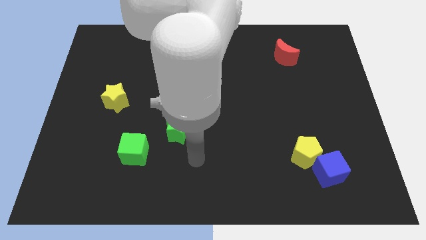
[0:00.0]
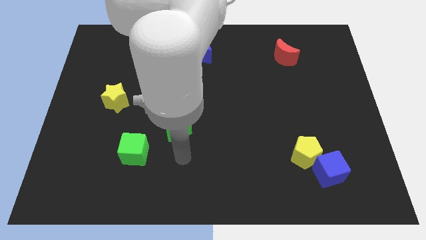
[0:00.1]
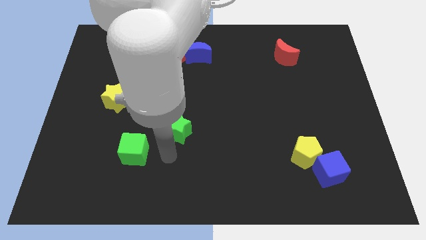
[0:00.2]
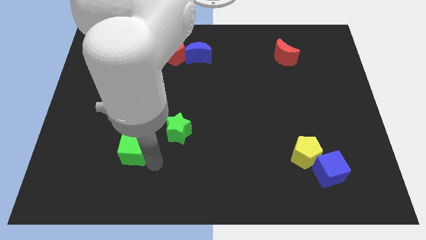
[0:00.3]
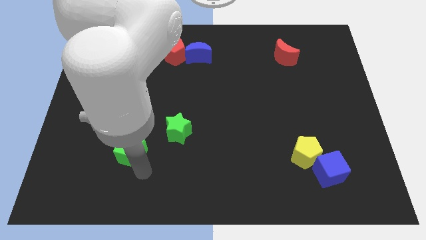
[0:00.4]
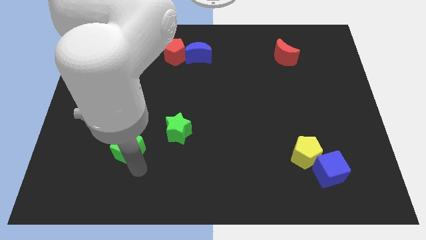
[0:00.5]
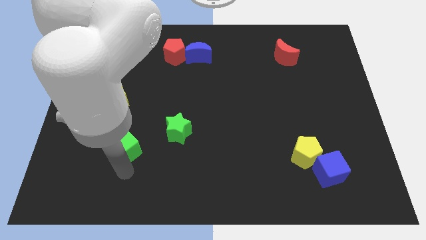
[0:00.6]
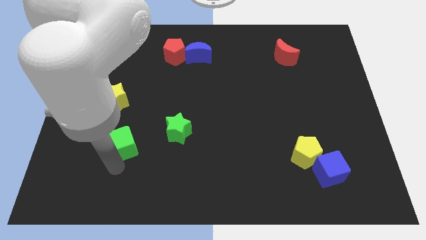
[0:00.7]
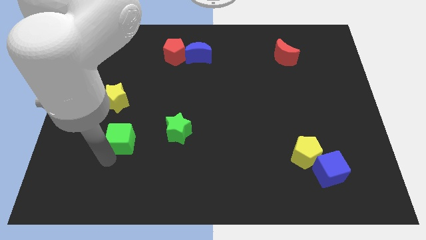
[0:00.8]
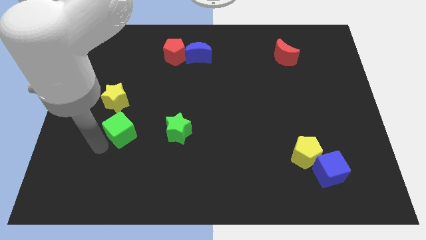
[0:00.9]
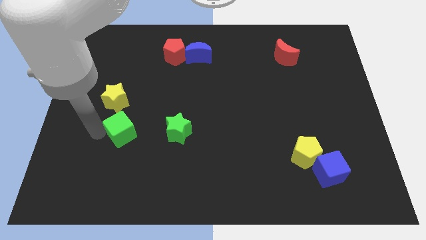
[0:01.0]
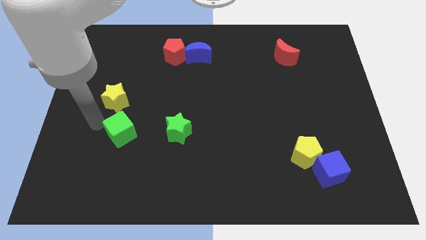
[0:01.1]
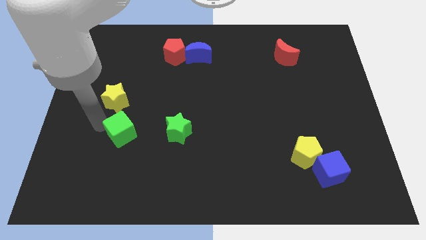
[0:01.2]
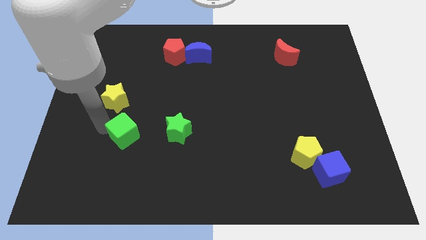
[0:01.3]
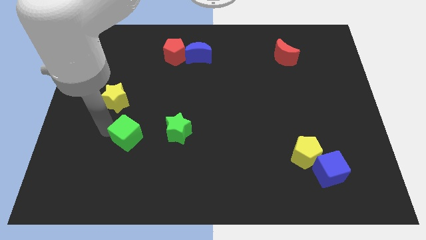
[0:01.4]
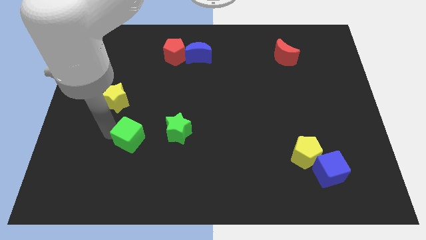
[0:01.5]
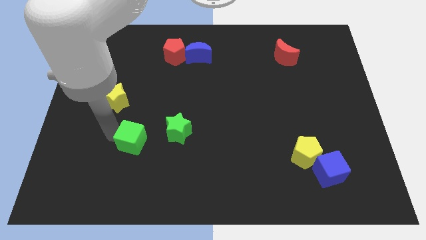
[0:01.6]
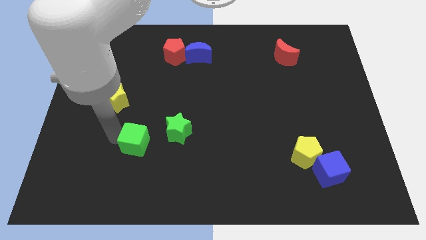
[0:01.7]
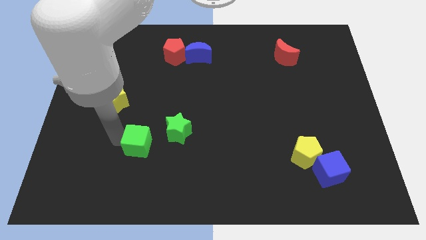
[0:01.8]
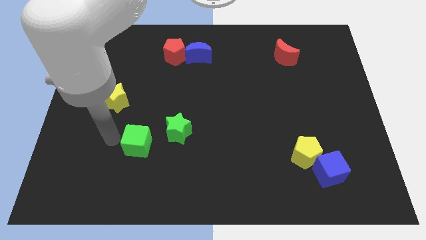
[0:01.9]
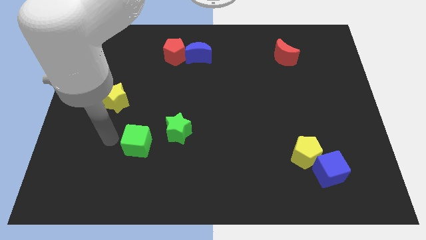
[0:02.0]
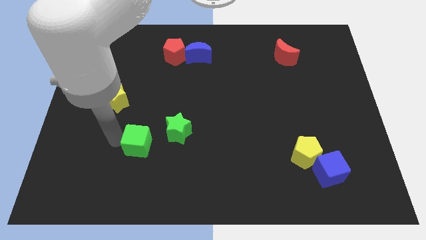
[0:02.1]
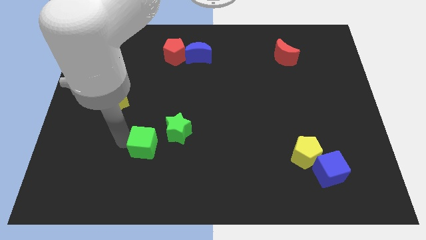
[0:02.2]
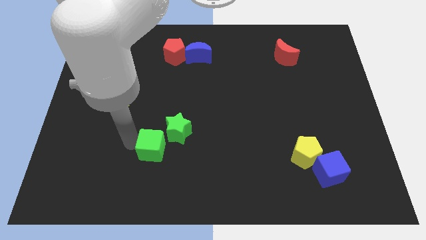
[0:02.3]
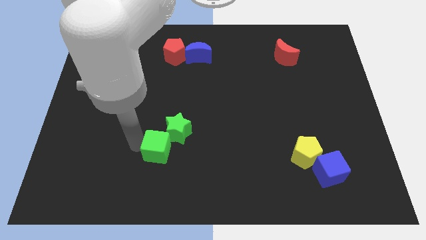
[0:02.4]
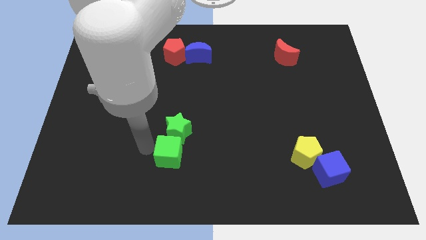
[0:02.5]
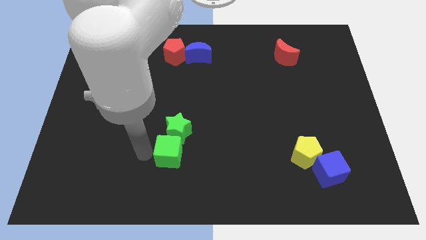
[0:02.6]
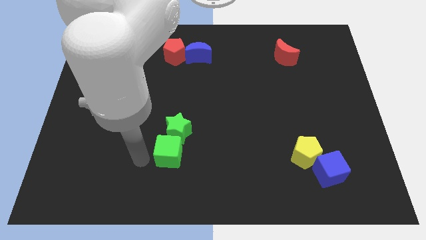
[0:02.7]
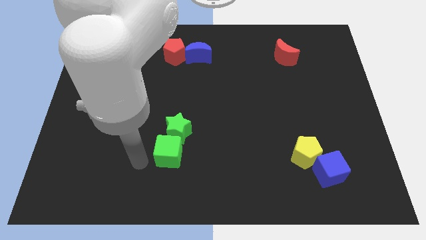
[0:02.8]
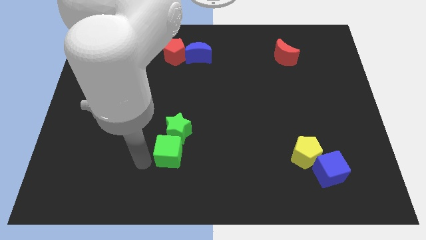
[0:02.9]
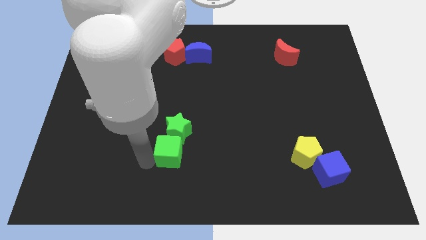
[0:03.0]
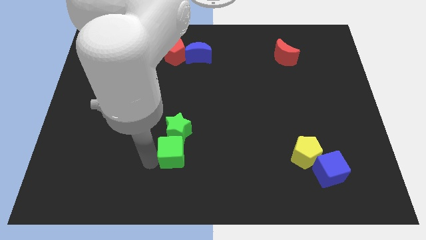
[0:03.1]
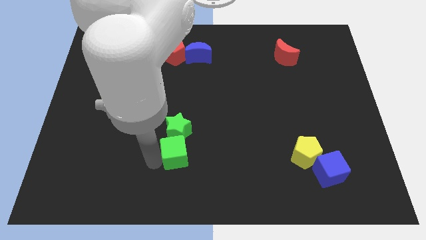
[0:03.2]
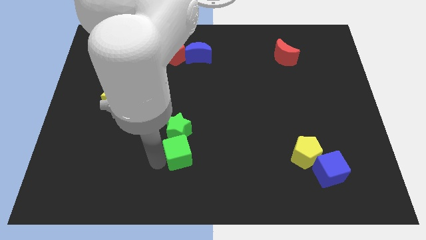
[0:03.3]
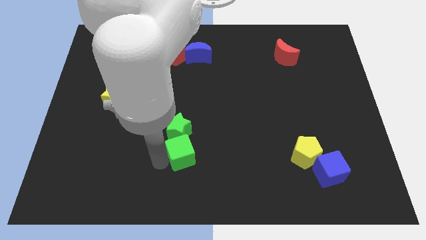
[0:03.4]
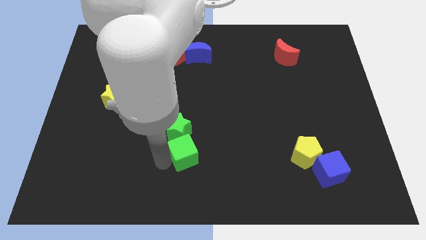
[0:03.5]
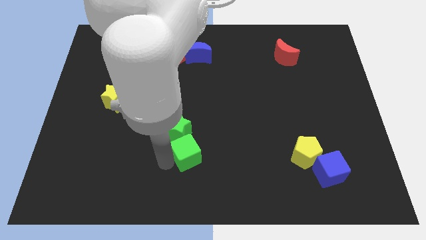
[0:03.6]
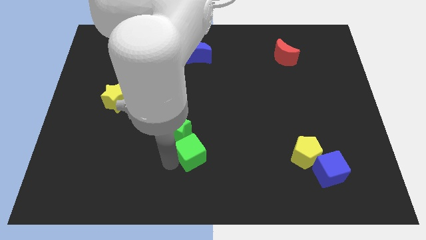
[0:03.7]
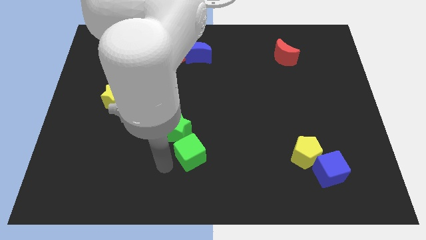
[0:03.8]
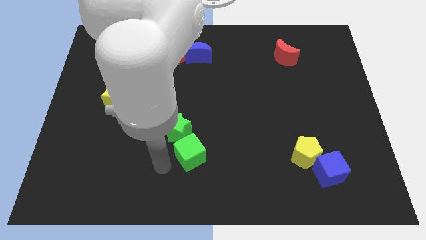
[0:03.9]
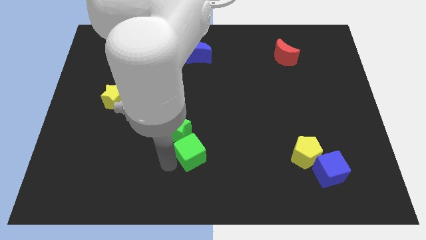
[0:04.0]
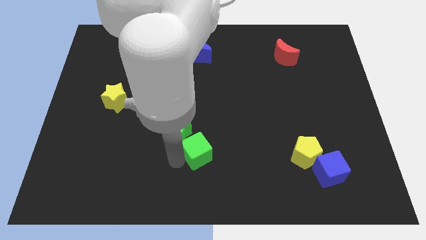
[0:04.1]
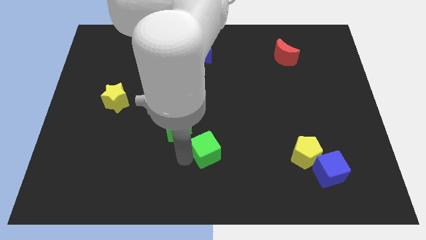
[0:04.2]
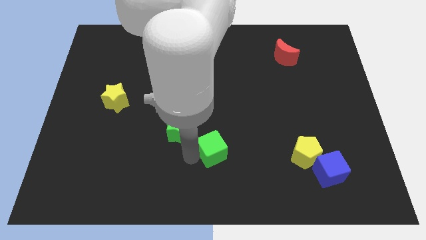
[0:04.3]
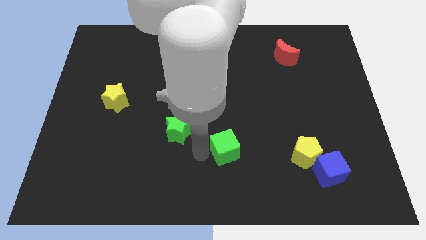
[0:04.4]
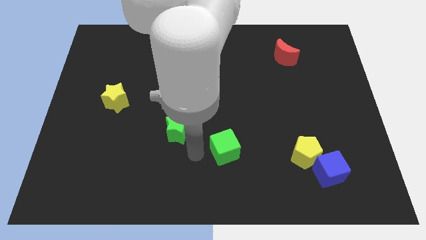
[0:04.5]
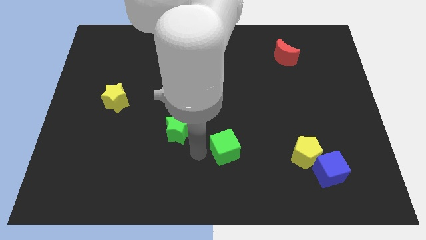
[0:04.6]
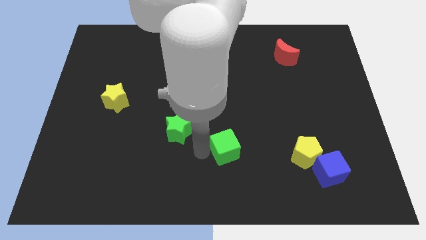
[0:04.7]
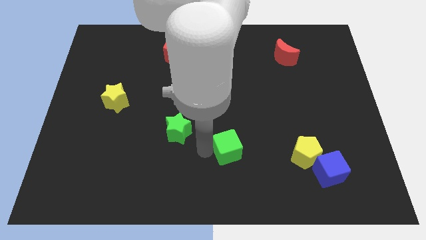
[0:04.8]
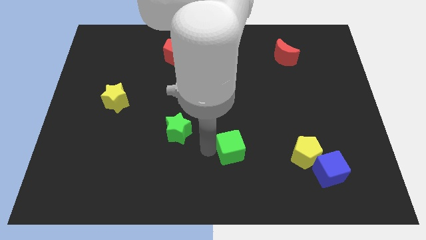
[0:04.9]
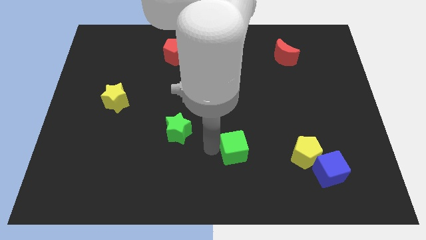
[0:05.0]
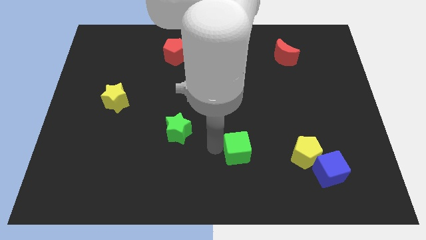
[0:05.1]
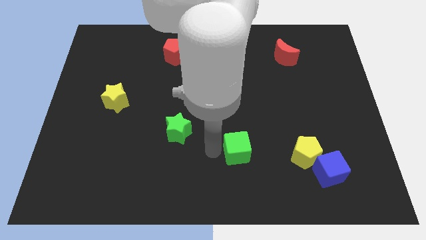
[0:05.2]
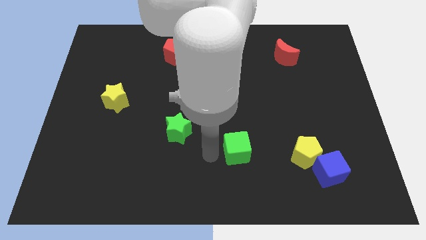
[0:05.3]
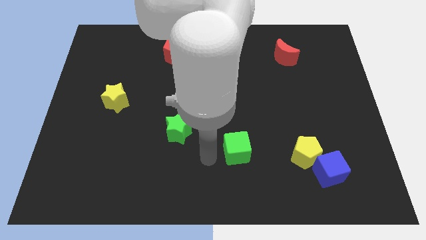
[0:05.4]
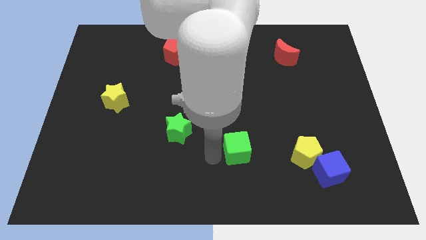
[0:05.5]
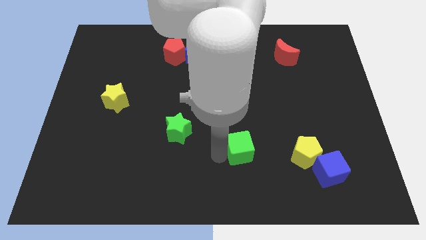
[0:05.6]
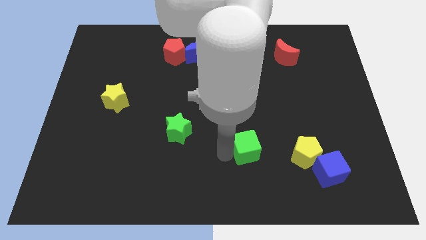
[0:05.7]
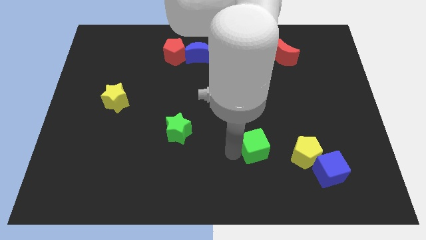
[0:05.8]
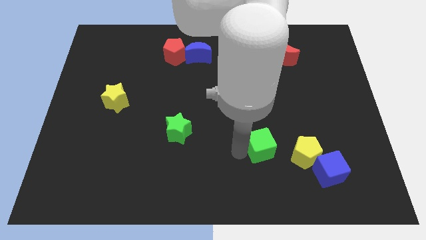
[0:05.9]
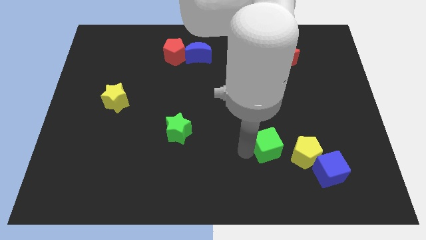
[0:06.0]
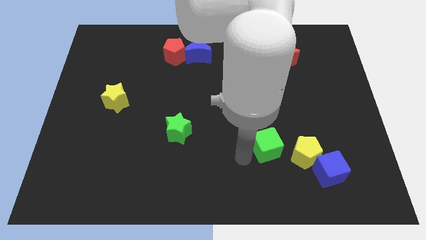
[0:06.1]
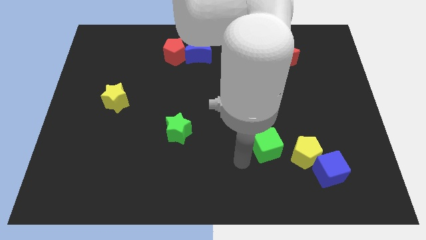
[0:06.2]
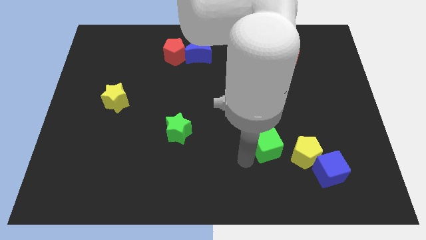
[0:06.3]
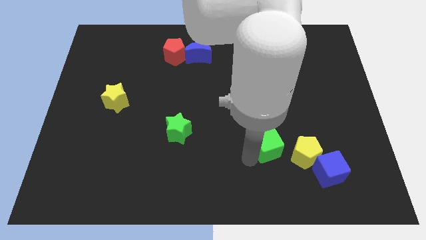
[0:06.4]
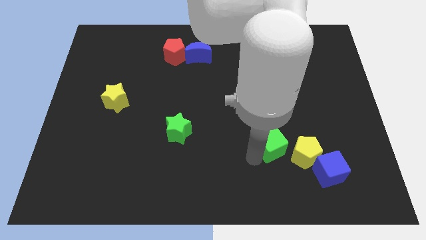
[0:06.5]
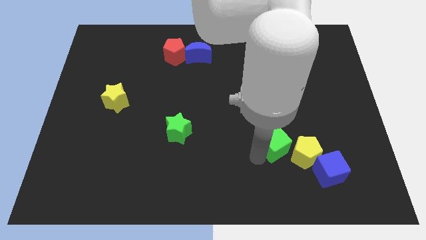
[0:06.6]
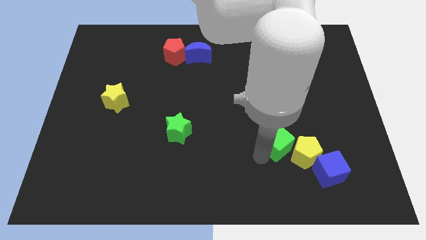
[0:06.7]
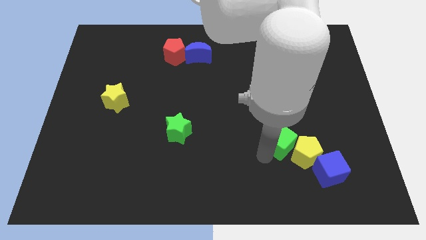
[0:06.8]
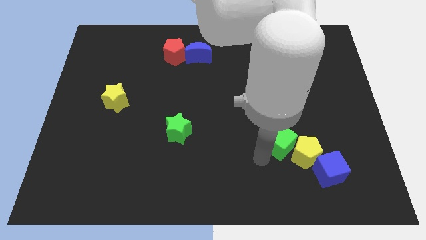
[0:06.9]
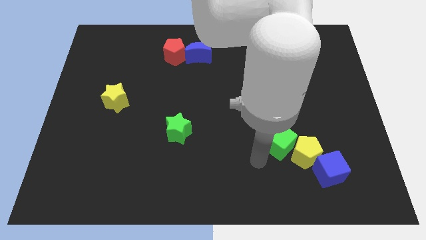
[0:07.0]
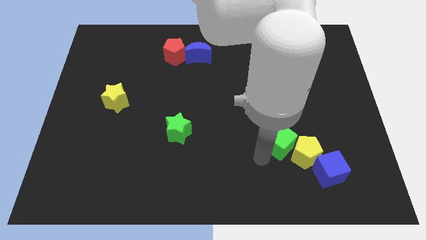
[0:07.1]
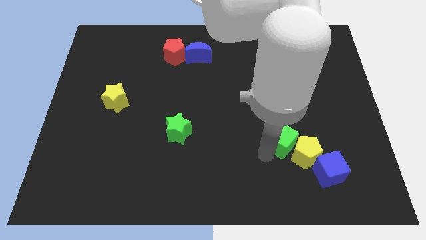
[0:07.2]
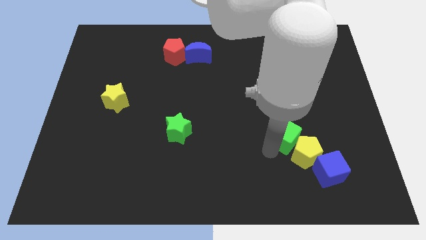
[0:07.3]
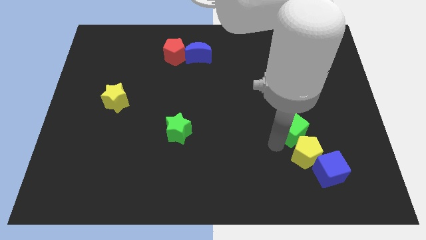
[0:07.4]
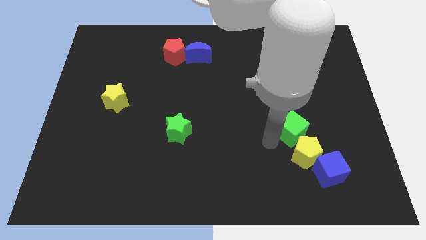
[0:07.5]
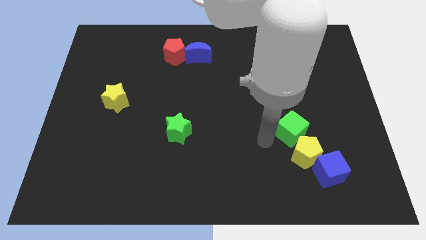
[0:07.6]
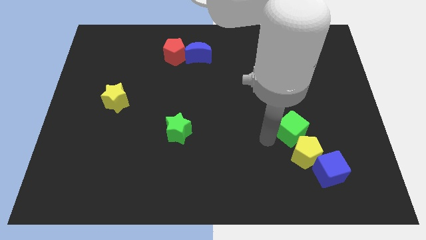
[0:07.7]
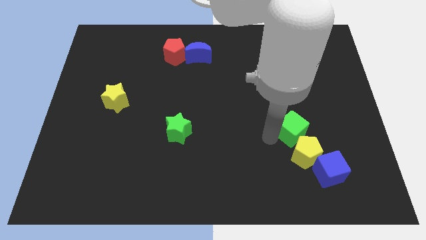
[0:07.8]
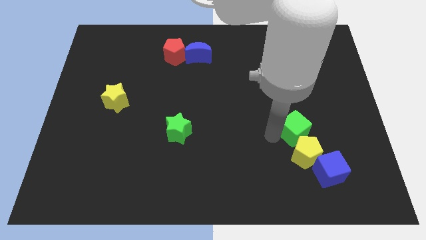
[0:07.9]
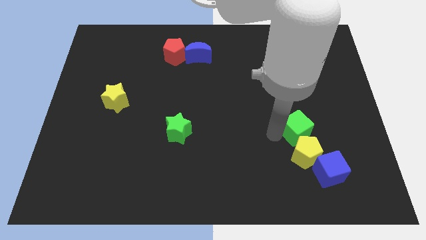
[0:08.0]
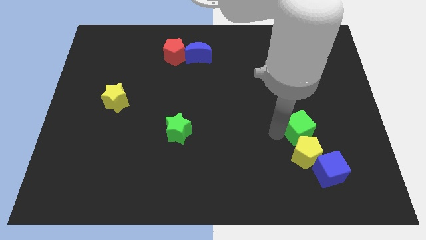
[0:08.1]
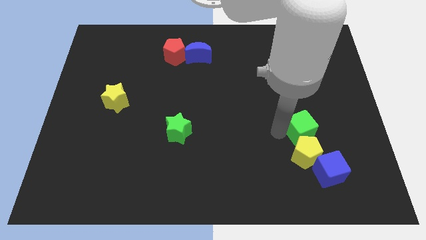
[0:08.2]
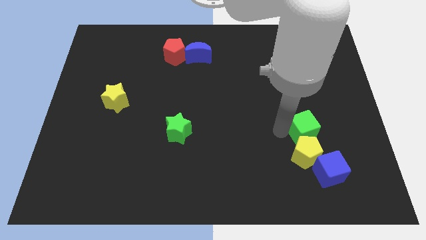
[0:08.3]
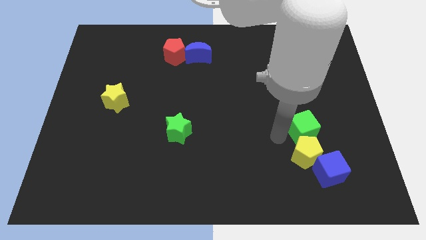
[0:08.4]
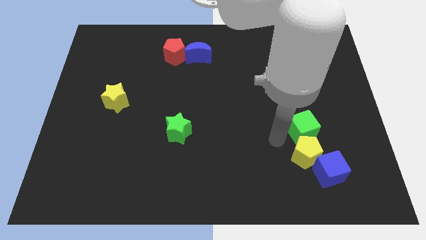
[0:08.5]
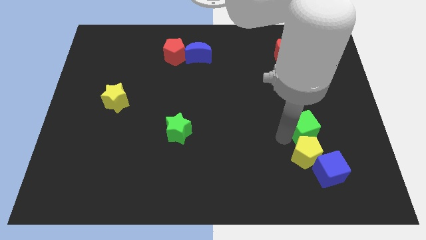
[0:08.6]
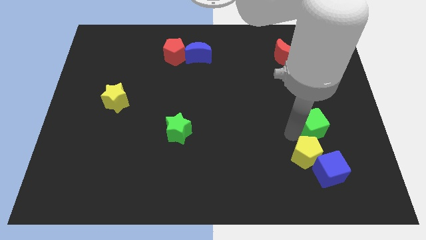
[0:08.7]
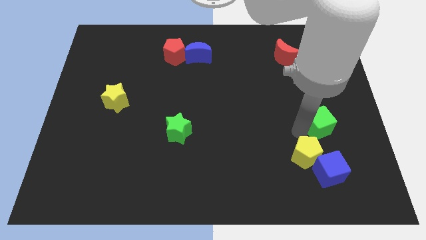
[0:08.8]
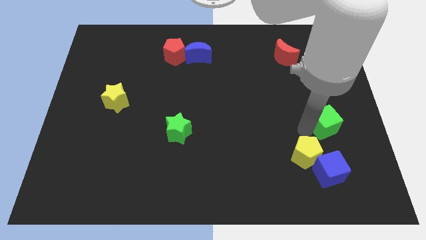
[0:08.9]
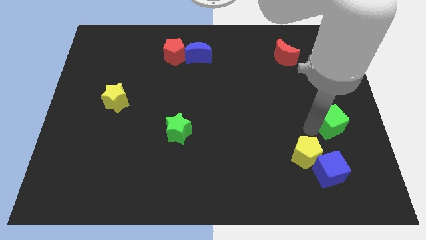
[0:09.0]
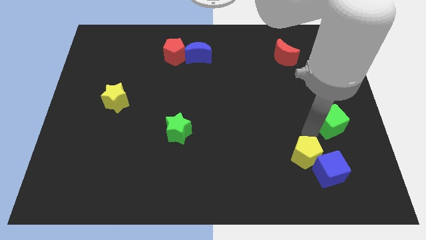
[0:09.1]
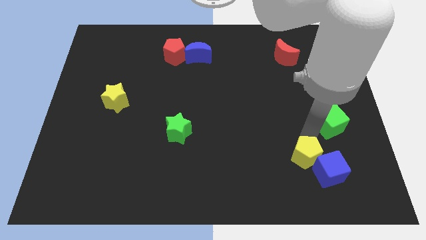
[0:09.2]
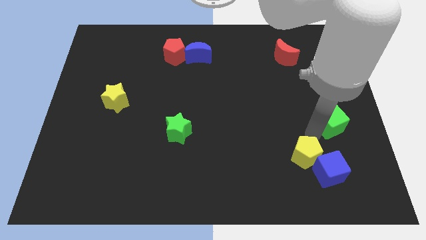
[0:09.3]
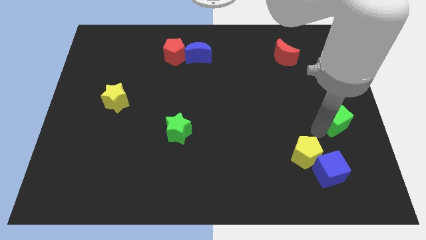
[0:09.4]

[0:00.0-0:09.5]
push the green cube to the center right
